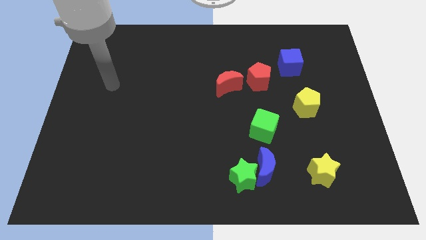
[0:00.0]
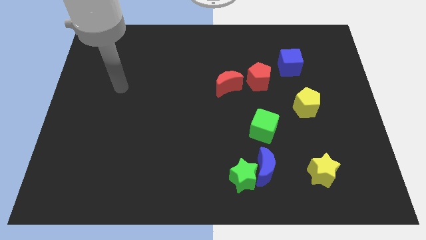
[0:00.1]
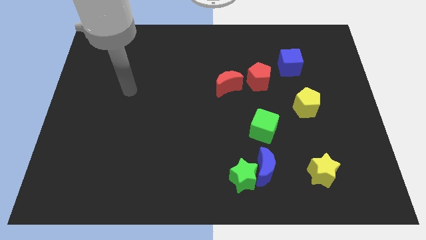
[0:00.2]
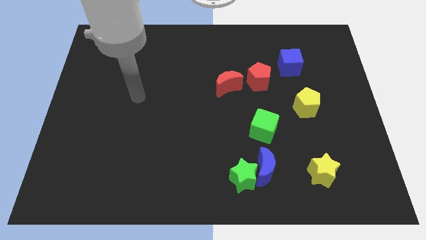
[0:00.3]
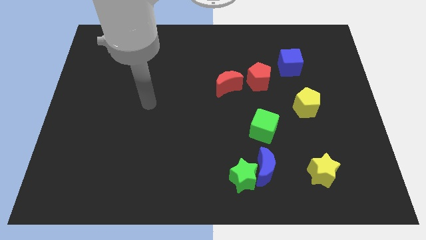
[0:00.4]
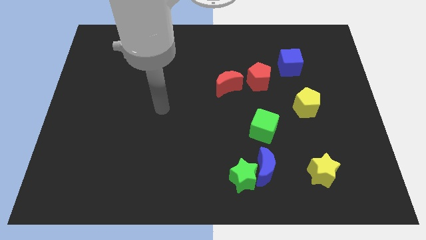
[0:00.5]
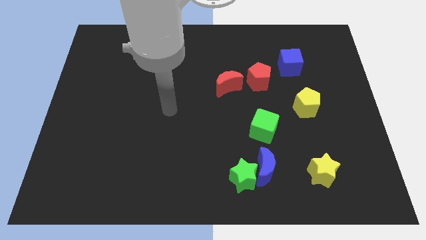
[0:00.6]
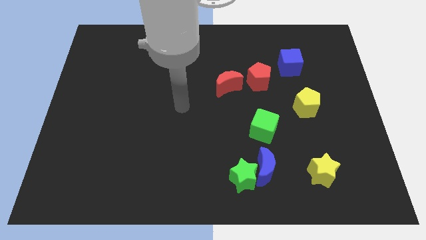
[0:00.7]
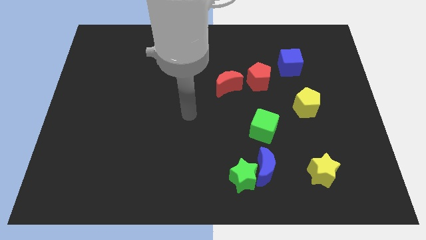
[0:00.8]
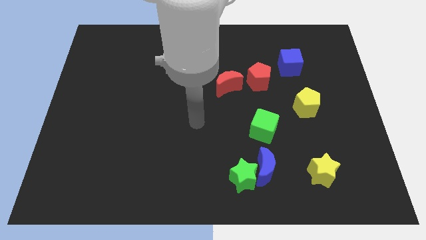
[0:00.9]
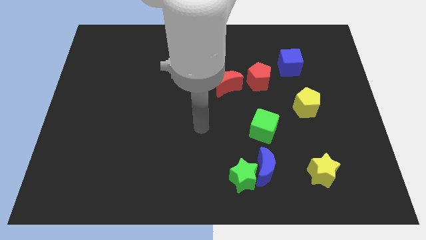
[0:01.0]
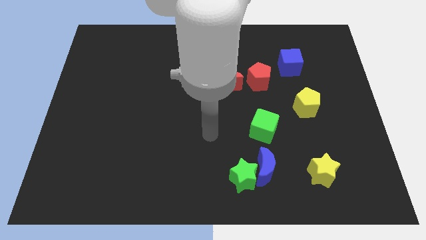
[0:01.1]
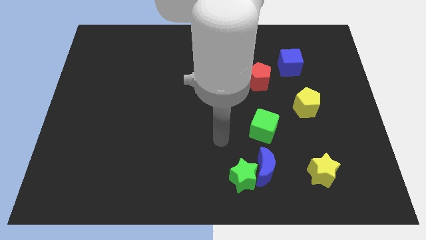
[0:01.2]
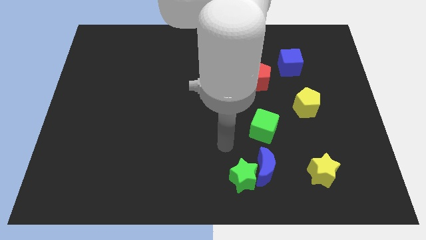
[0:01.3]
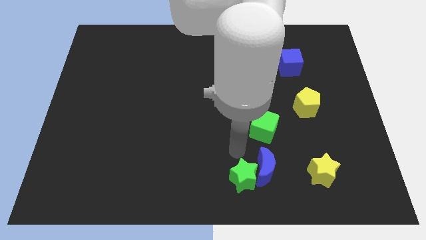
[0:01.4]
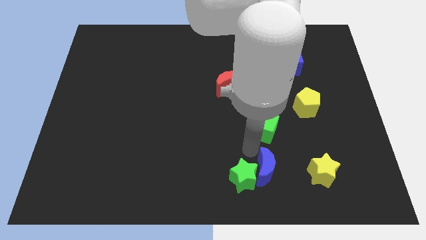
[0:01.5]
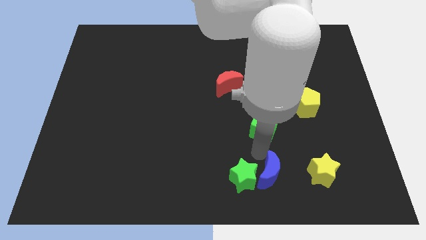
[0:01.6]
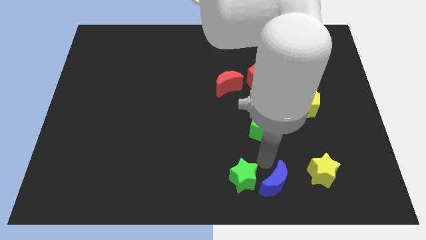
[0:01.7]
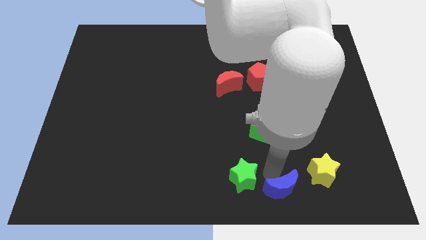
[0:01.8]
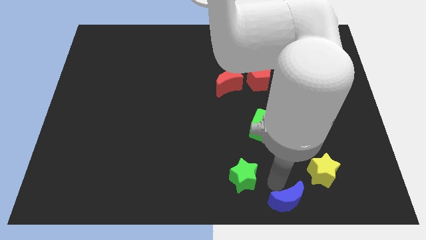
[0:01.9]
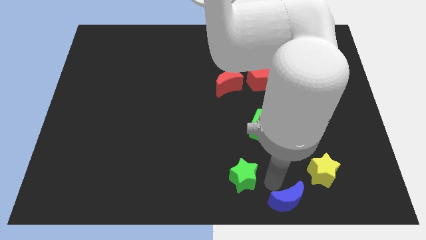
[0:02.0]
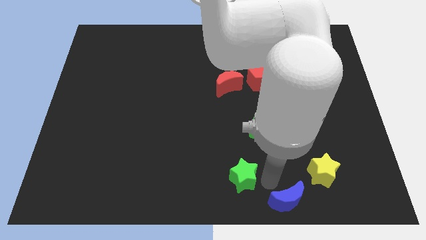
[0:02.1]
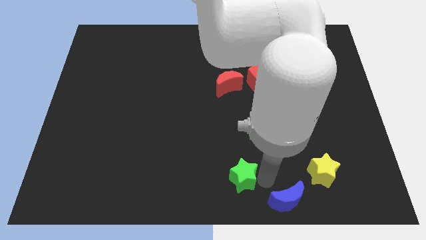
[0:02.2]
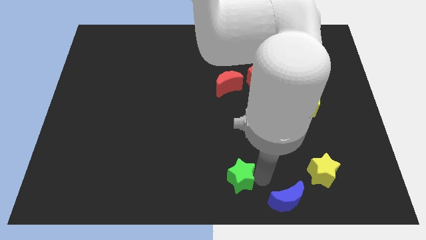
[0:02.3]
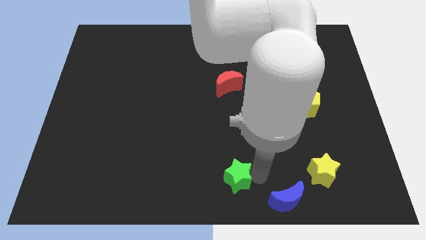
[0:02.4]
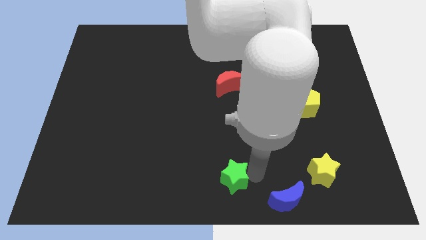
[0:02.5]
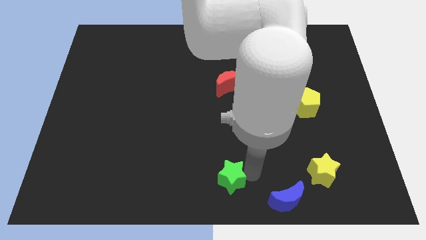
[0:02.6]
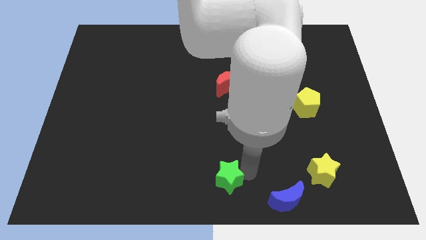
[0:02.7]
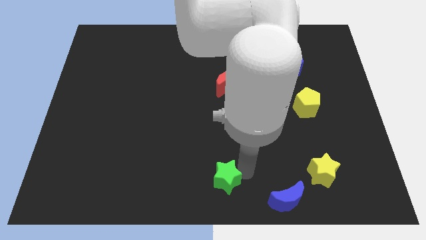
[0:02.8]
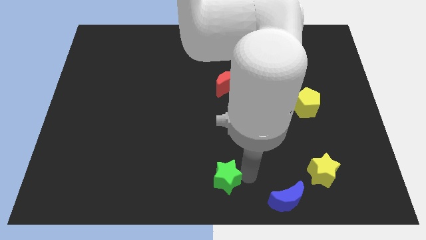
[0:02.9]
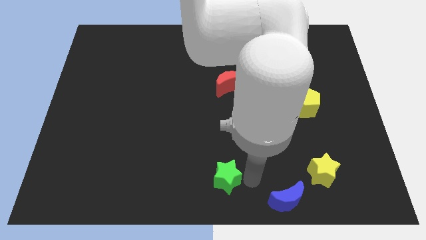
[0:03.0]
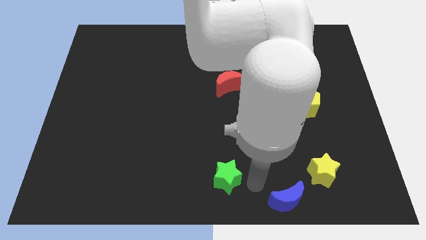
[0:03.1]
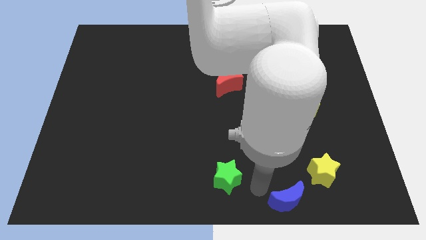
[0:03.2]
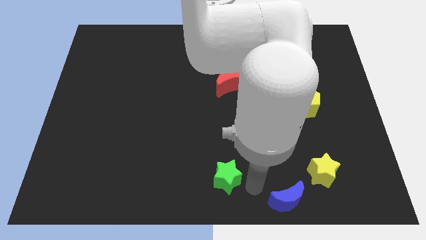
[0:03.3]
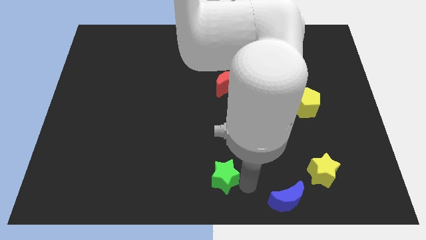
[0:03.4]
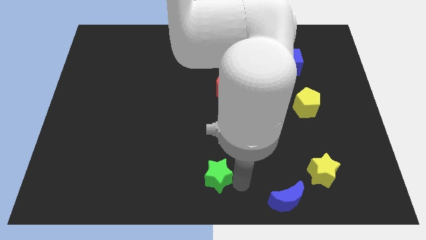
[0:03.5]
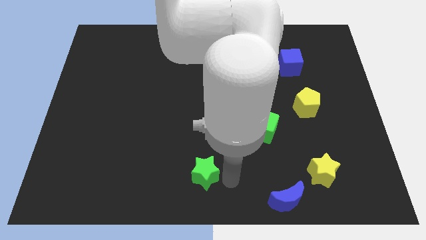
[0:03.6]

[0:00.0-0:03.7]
slightly slide the green star to the left

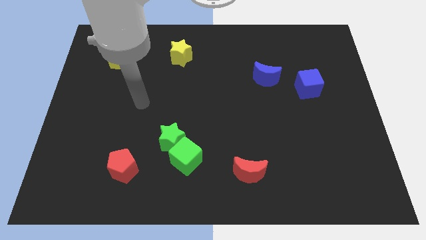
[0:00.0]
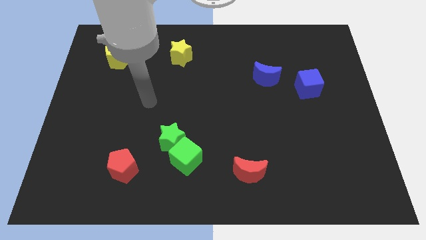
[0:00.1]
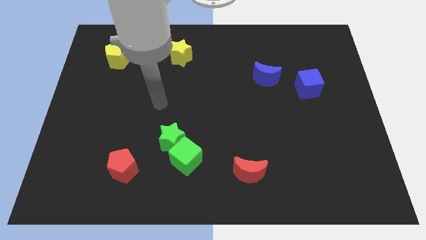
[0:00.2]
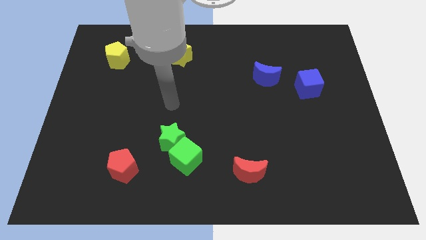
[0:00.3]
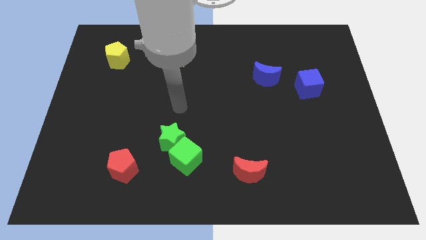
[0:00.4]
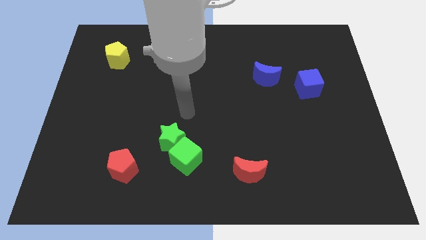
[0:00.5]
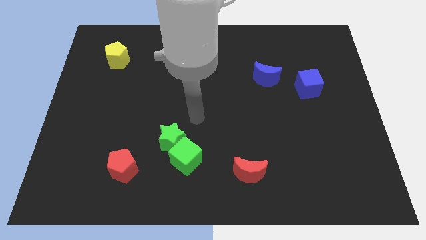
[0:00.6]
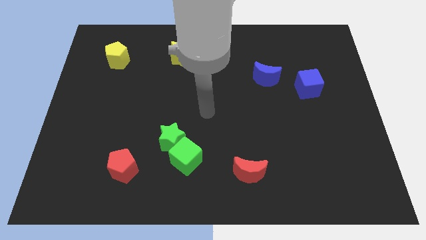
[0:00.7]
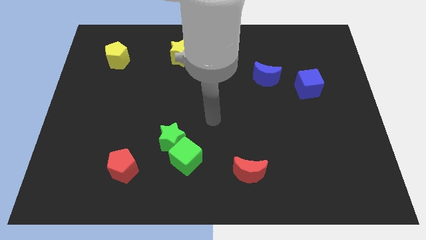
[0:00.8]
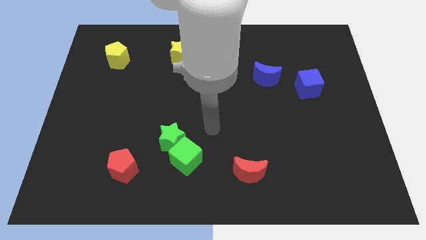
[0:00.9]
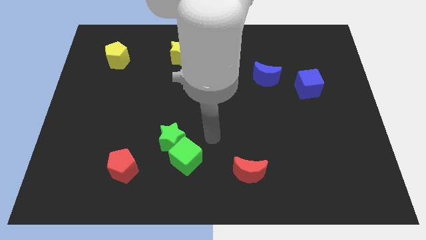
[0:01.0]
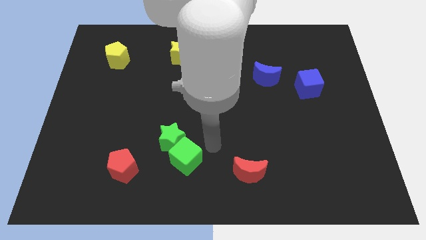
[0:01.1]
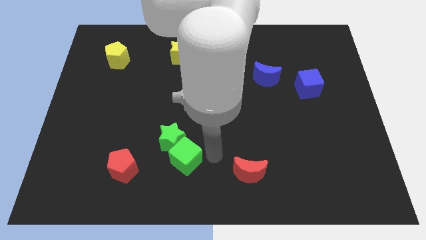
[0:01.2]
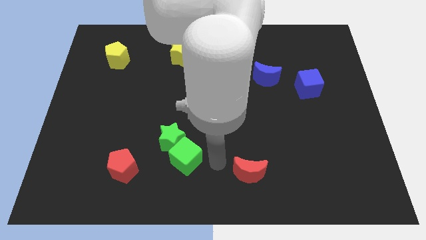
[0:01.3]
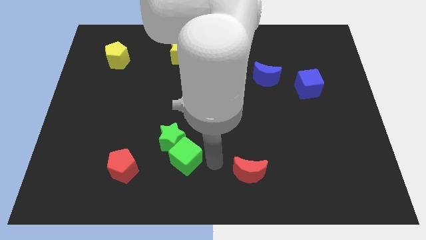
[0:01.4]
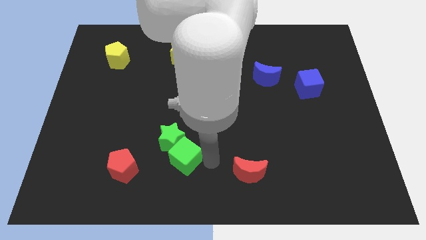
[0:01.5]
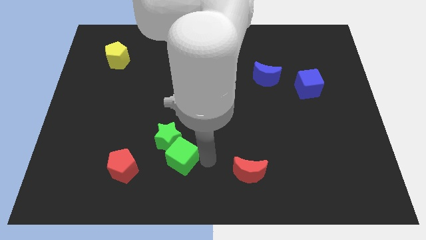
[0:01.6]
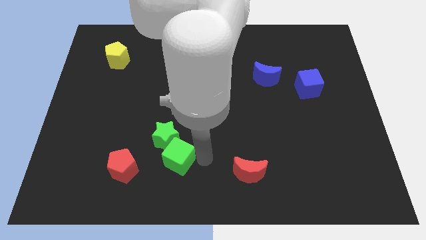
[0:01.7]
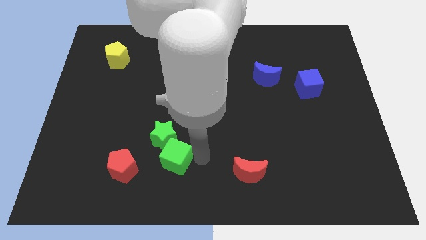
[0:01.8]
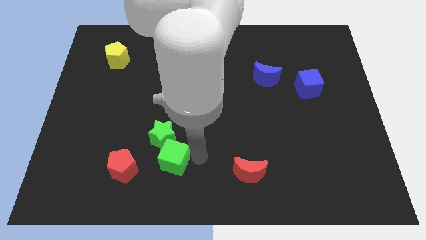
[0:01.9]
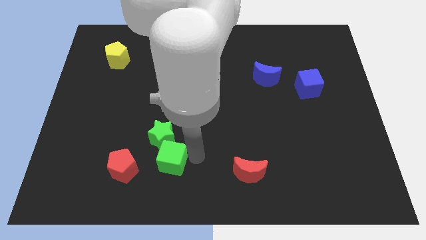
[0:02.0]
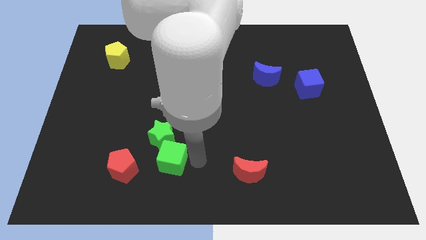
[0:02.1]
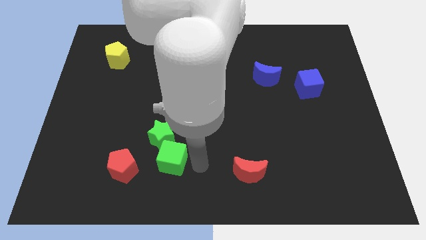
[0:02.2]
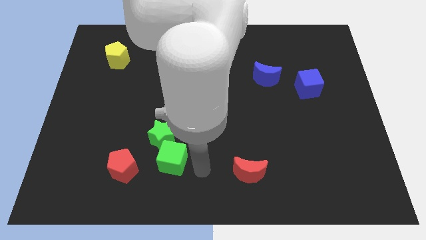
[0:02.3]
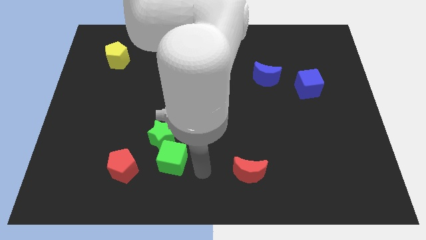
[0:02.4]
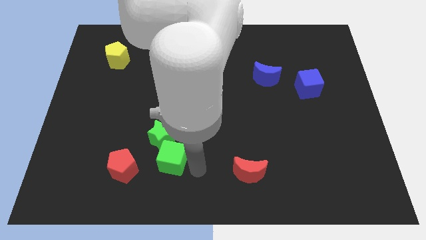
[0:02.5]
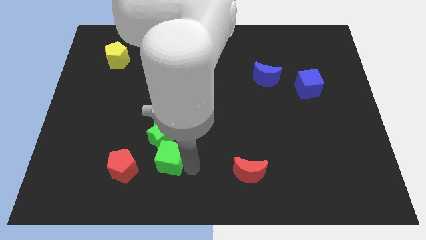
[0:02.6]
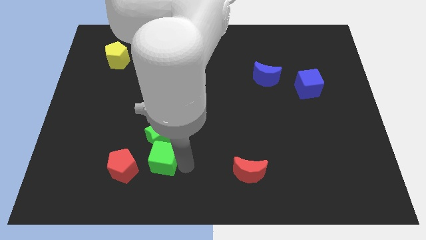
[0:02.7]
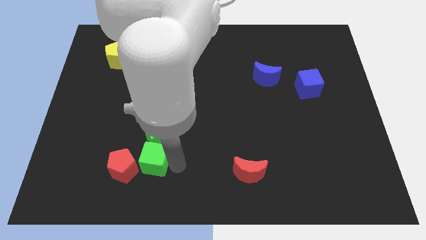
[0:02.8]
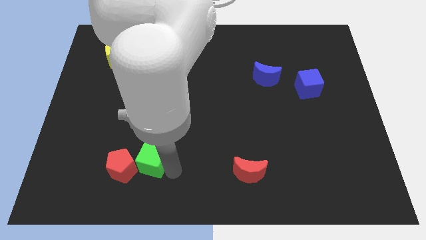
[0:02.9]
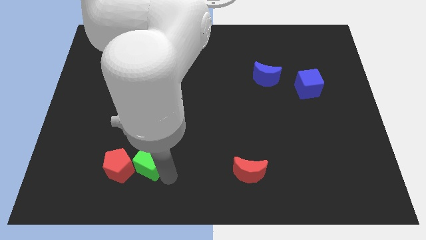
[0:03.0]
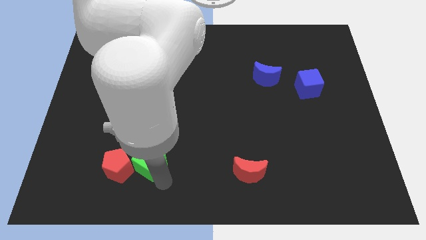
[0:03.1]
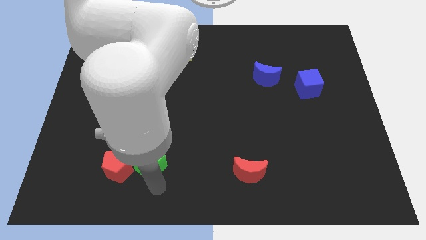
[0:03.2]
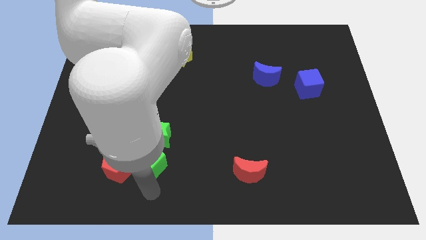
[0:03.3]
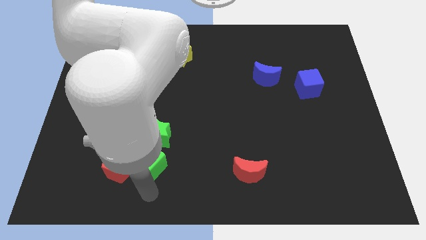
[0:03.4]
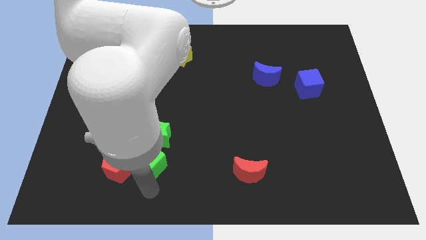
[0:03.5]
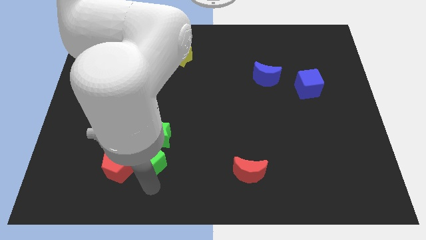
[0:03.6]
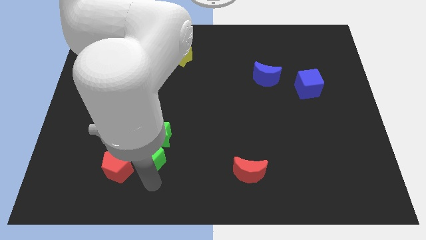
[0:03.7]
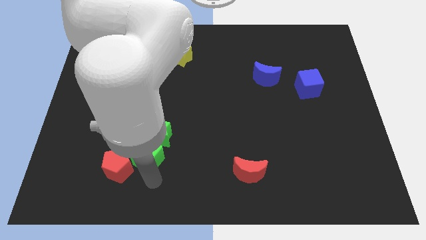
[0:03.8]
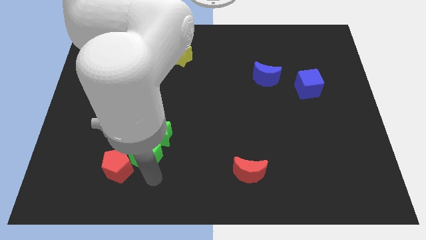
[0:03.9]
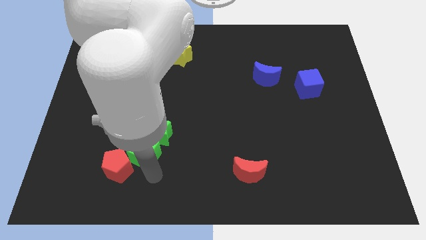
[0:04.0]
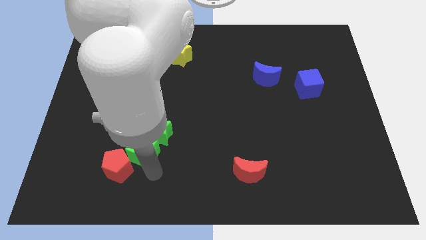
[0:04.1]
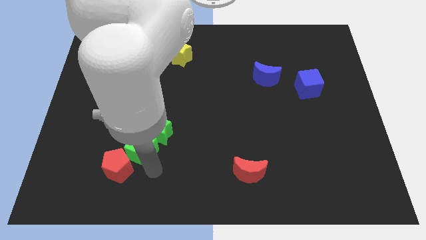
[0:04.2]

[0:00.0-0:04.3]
move the green cube slightly diagonally up and left
